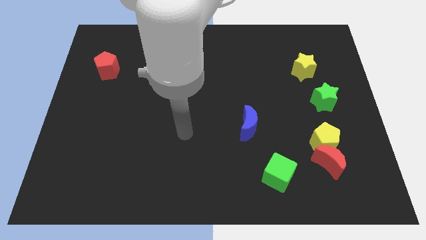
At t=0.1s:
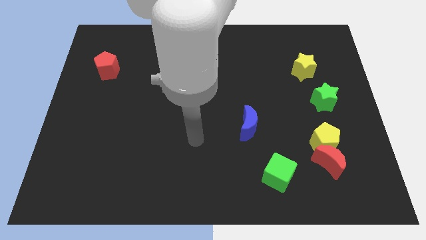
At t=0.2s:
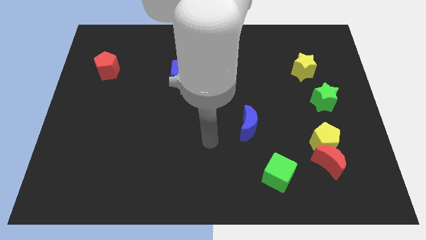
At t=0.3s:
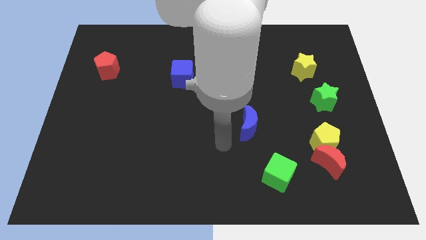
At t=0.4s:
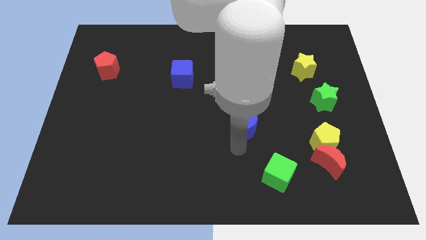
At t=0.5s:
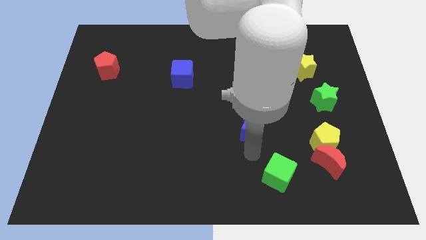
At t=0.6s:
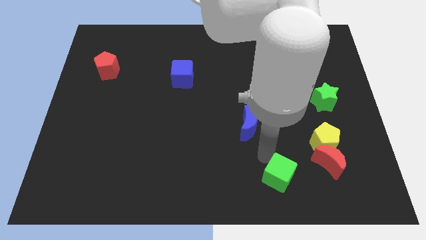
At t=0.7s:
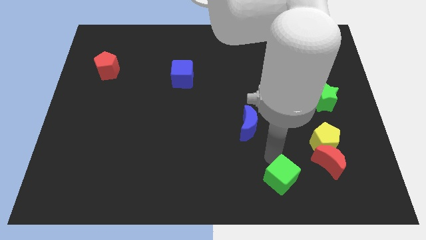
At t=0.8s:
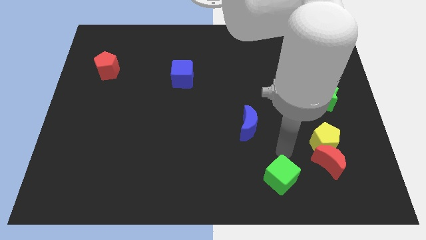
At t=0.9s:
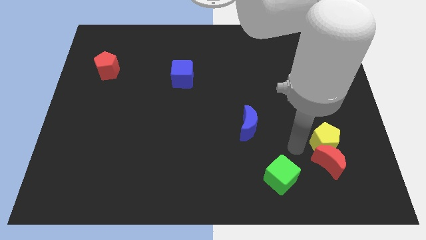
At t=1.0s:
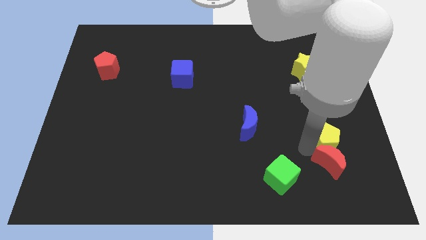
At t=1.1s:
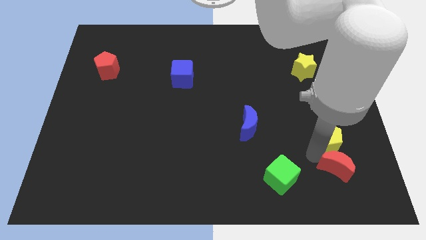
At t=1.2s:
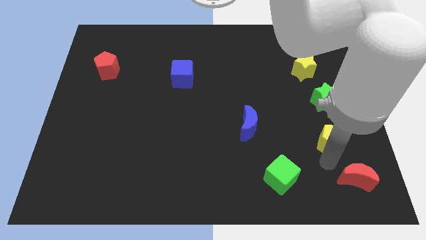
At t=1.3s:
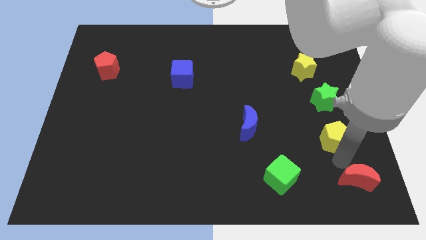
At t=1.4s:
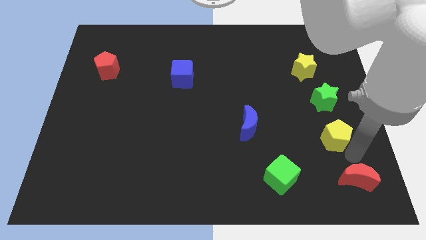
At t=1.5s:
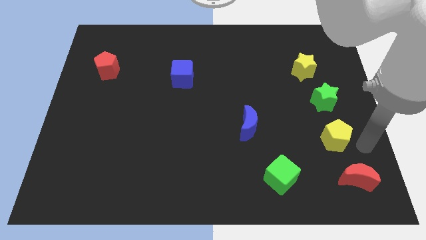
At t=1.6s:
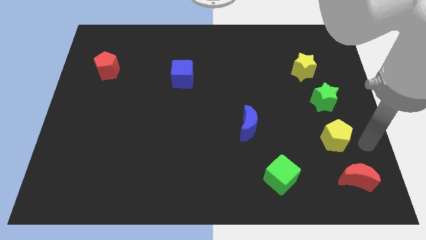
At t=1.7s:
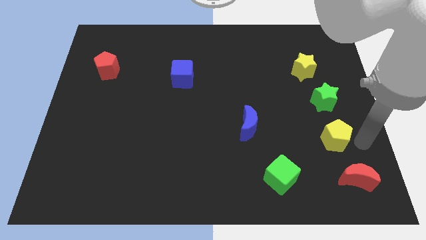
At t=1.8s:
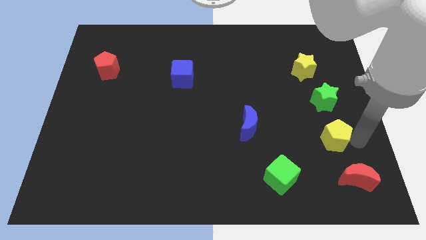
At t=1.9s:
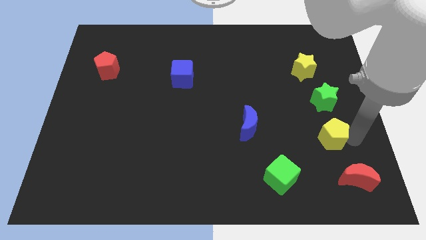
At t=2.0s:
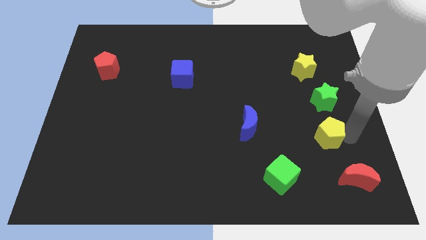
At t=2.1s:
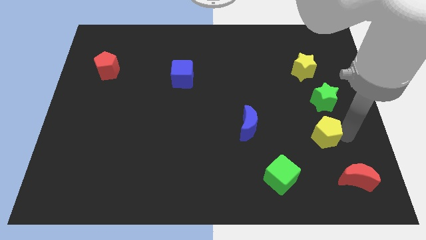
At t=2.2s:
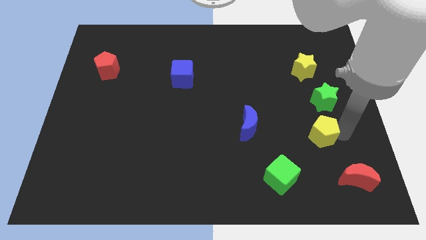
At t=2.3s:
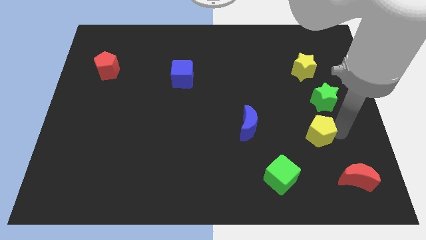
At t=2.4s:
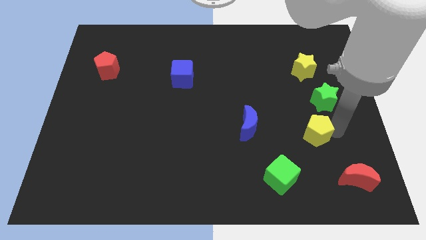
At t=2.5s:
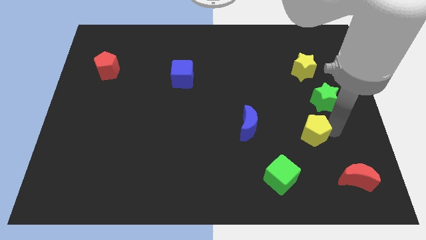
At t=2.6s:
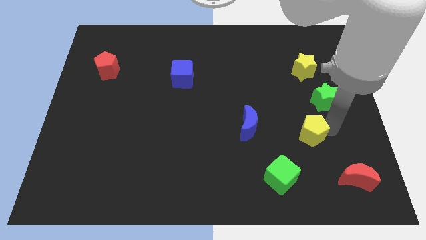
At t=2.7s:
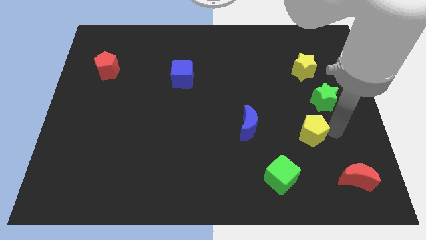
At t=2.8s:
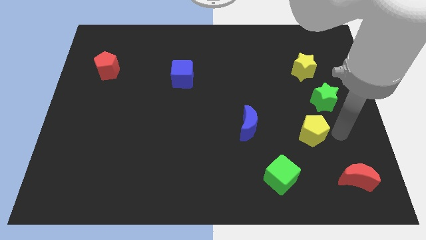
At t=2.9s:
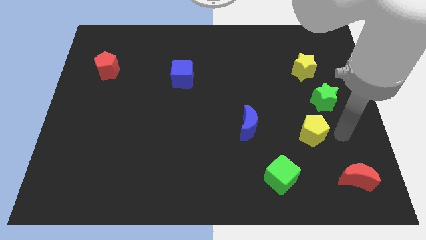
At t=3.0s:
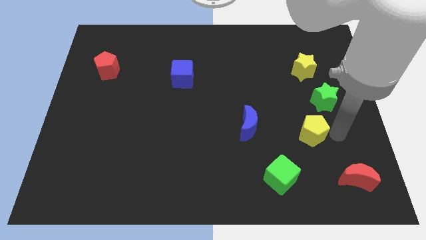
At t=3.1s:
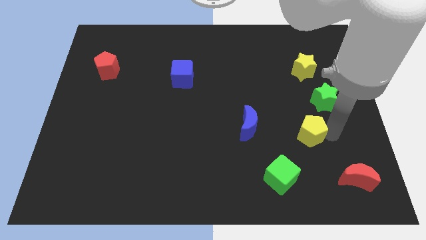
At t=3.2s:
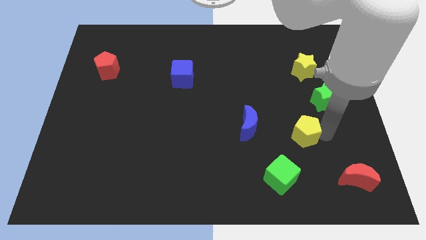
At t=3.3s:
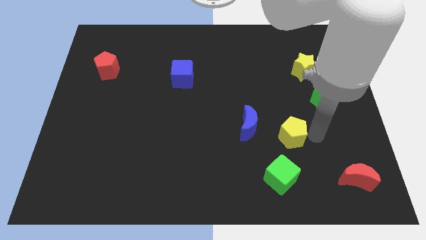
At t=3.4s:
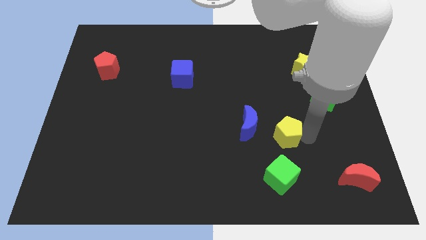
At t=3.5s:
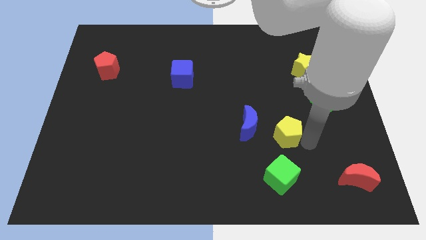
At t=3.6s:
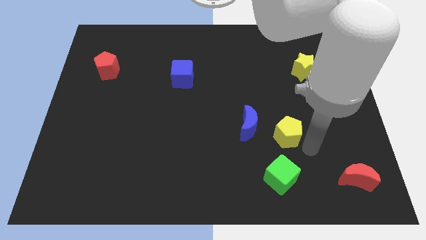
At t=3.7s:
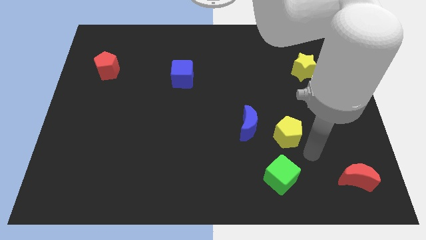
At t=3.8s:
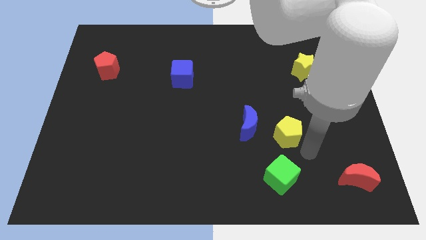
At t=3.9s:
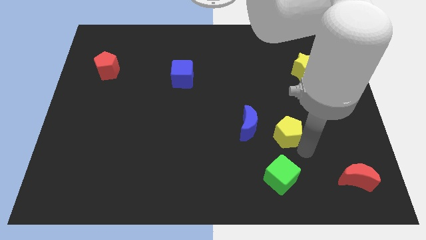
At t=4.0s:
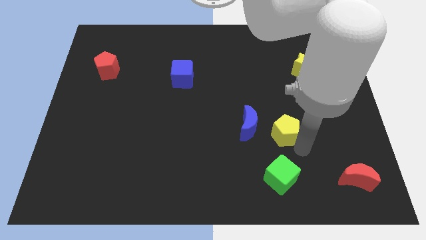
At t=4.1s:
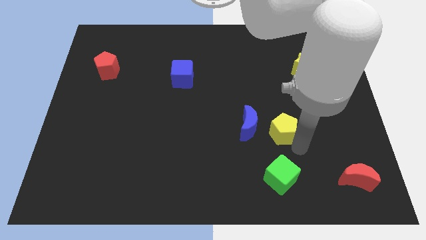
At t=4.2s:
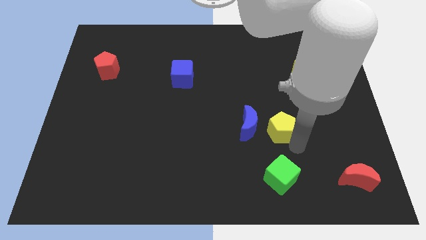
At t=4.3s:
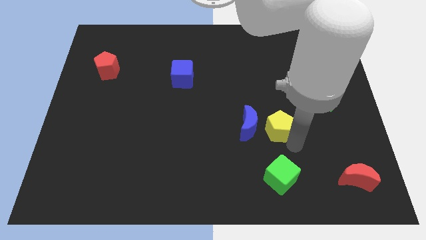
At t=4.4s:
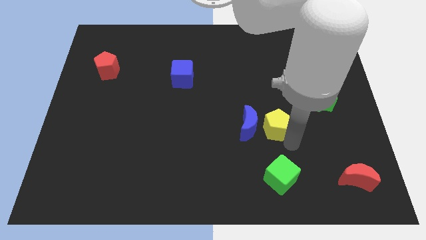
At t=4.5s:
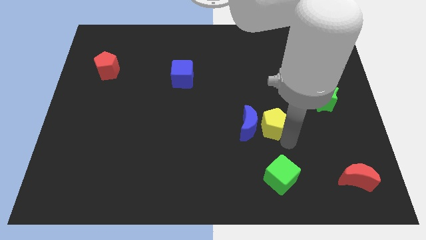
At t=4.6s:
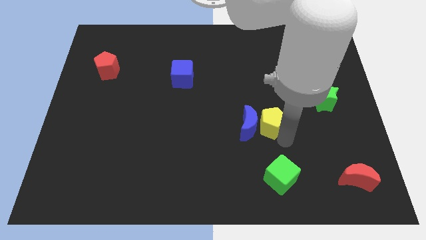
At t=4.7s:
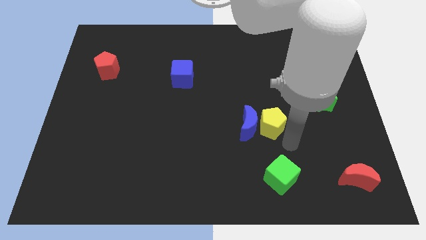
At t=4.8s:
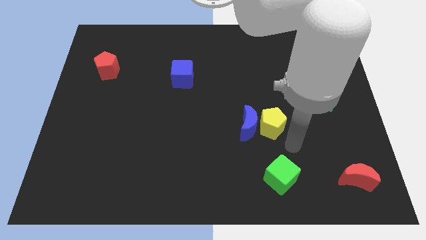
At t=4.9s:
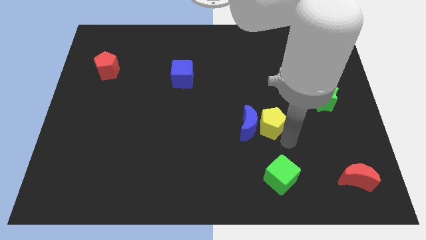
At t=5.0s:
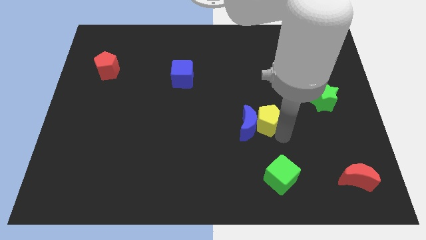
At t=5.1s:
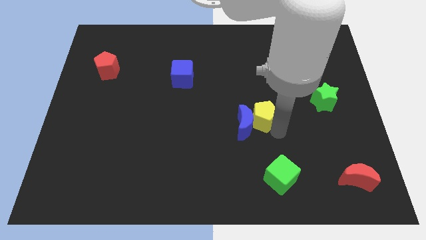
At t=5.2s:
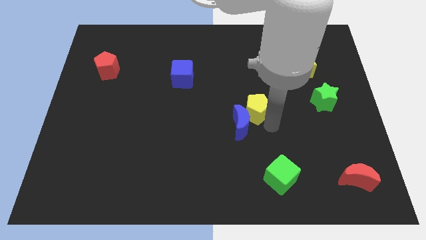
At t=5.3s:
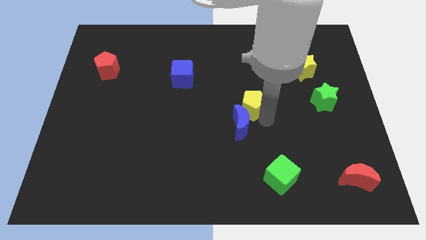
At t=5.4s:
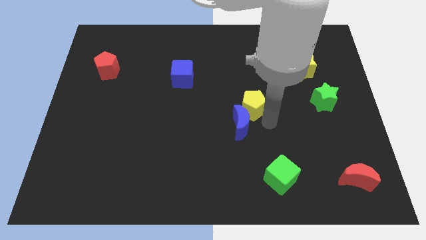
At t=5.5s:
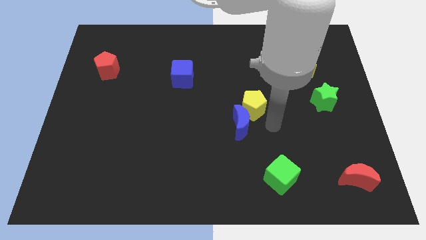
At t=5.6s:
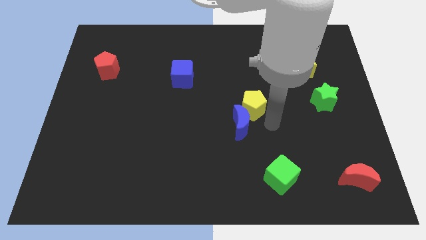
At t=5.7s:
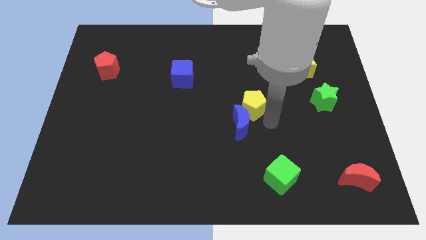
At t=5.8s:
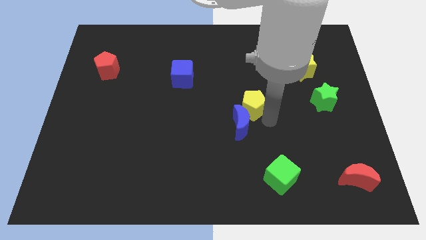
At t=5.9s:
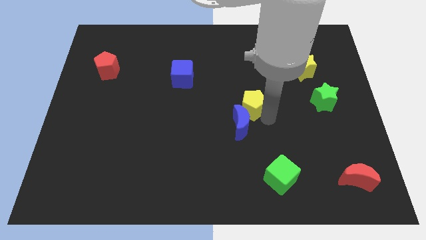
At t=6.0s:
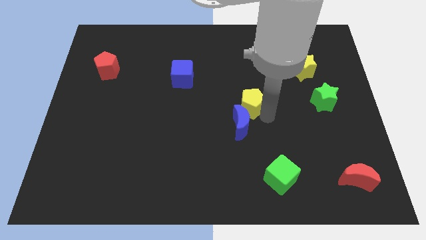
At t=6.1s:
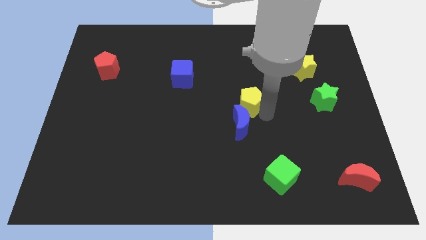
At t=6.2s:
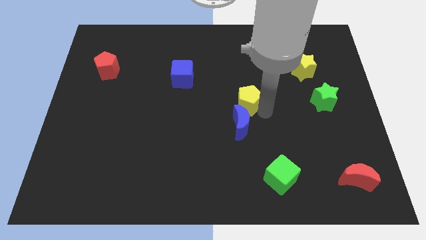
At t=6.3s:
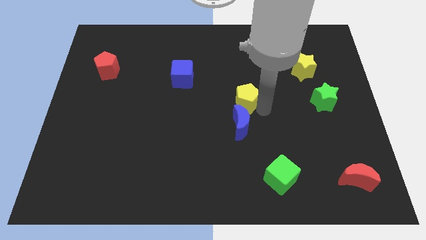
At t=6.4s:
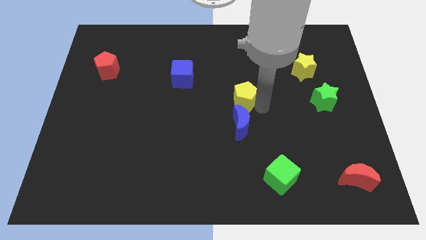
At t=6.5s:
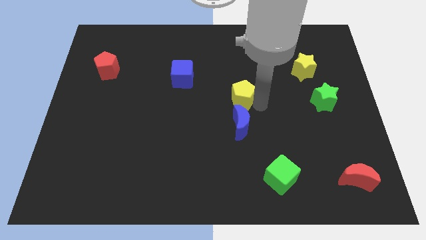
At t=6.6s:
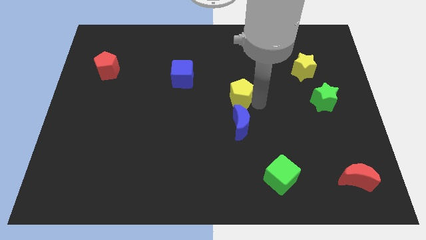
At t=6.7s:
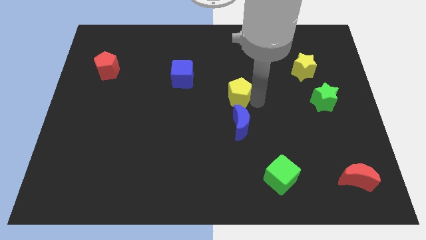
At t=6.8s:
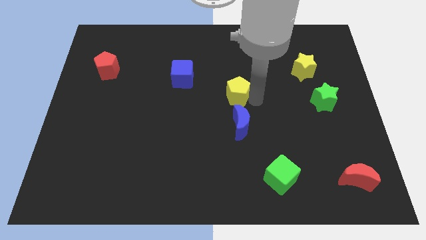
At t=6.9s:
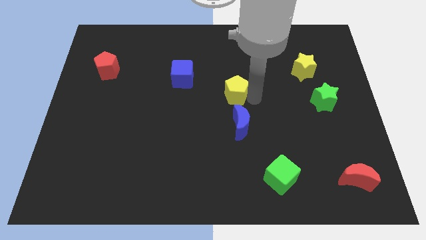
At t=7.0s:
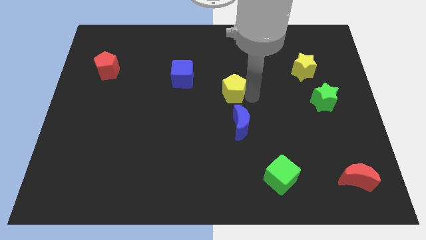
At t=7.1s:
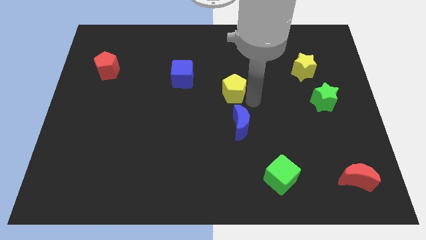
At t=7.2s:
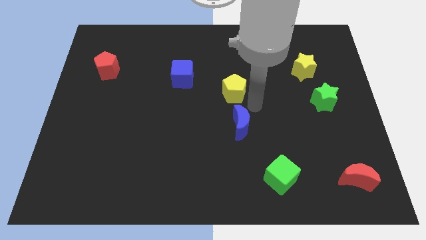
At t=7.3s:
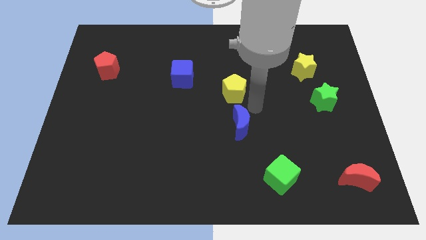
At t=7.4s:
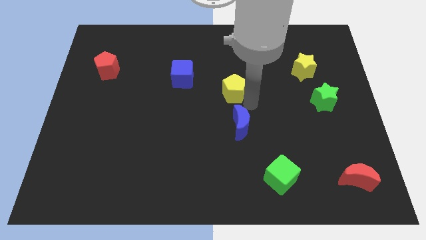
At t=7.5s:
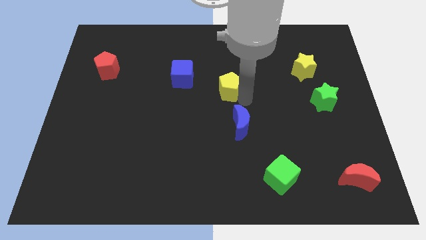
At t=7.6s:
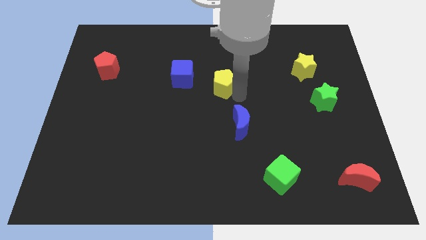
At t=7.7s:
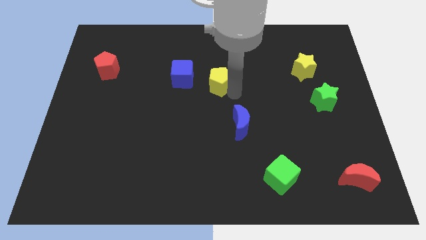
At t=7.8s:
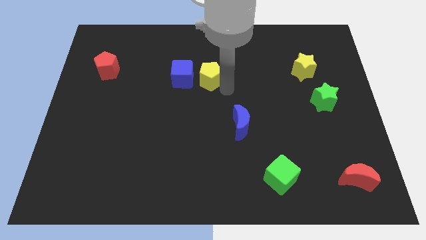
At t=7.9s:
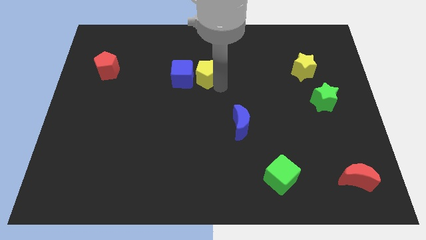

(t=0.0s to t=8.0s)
push the yellow pentagon to the top right side of the blue cube
